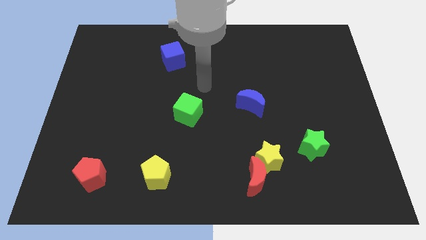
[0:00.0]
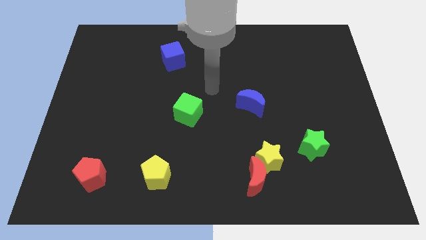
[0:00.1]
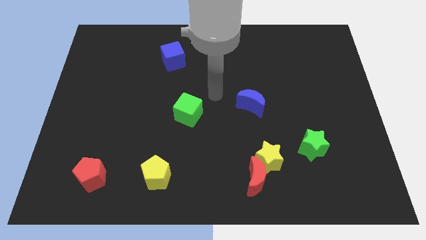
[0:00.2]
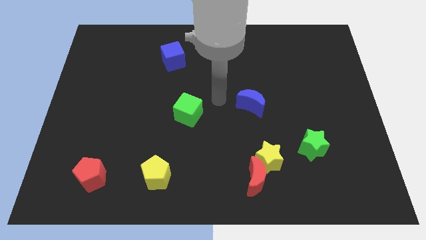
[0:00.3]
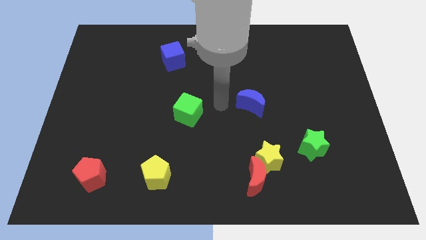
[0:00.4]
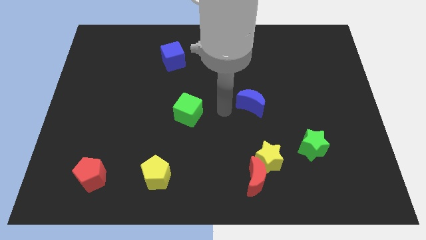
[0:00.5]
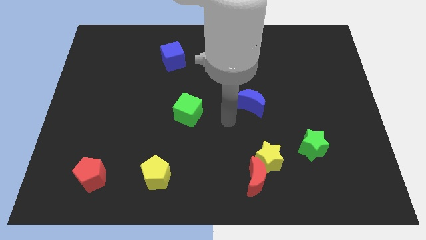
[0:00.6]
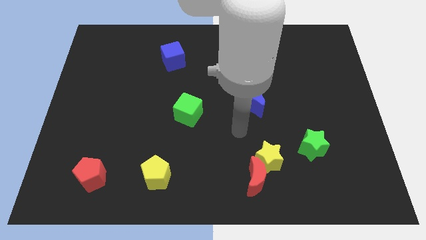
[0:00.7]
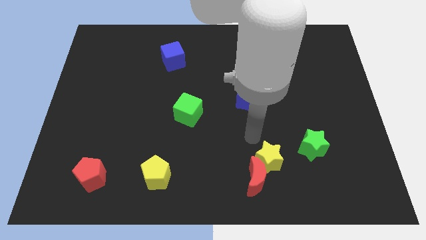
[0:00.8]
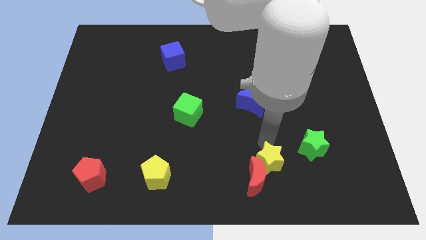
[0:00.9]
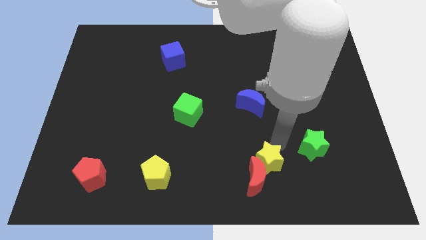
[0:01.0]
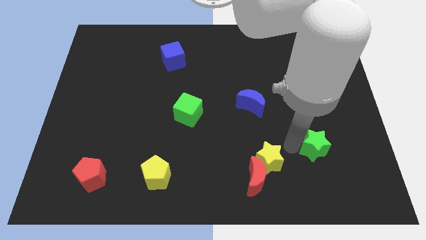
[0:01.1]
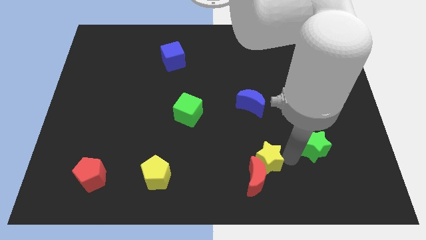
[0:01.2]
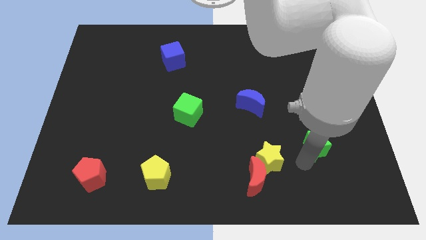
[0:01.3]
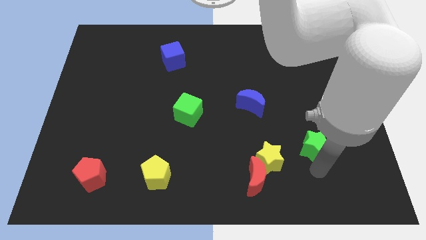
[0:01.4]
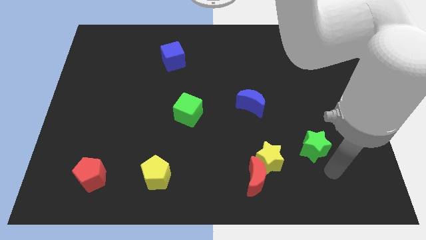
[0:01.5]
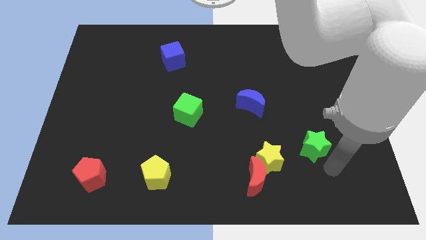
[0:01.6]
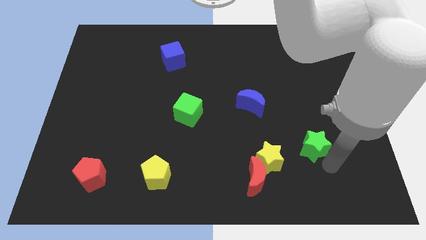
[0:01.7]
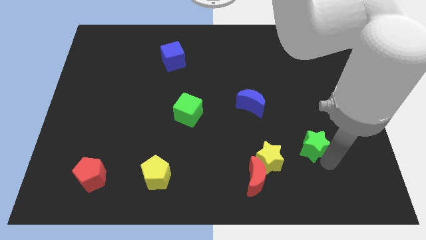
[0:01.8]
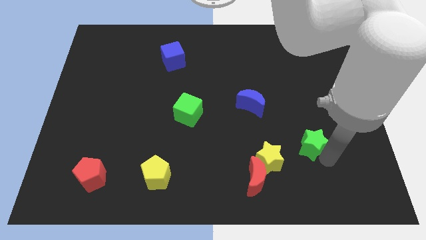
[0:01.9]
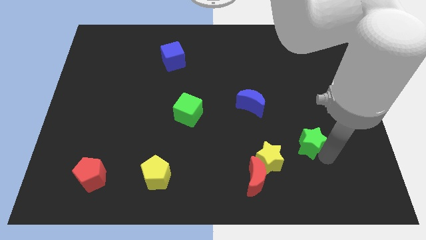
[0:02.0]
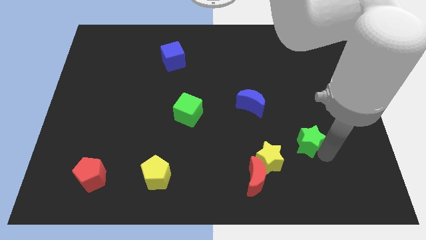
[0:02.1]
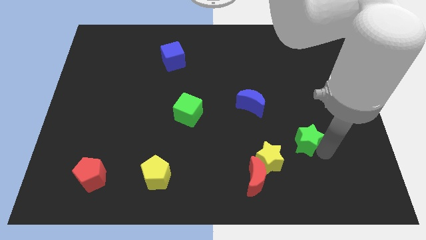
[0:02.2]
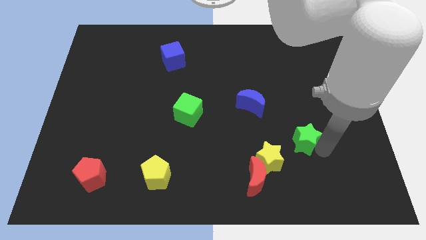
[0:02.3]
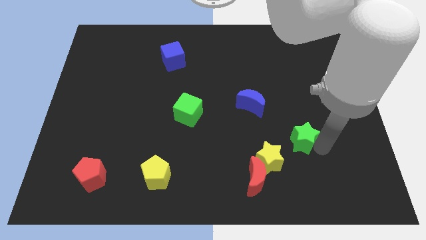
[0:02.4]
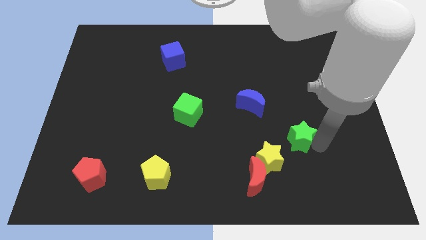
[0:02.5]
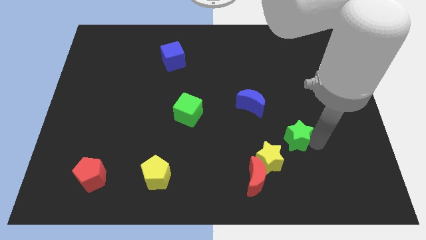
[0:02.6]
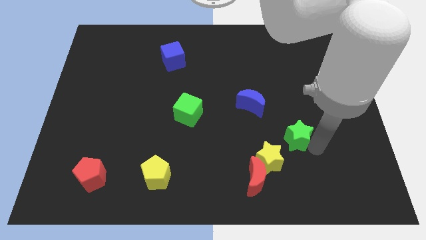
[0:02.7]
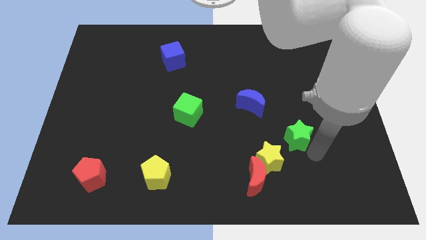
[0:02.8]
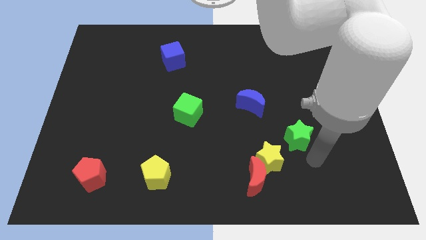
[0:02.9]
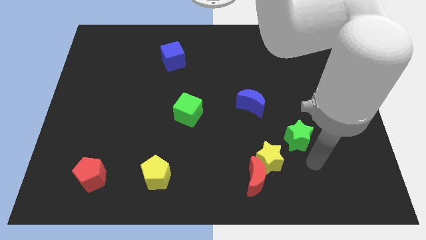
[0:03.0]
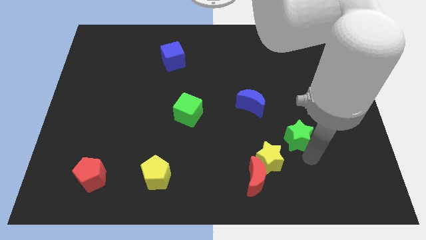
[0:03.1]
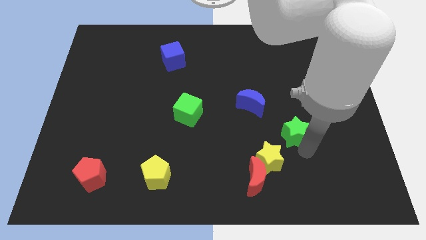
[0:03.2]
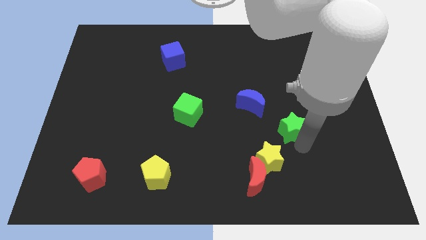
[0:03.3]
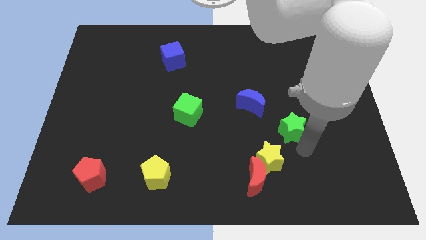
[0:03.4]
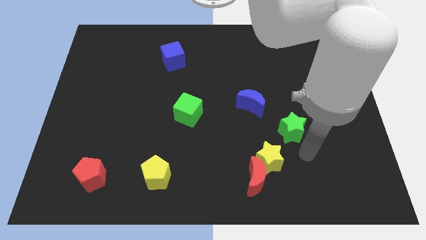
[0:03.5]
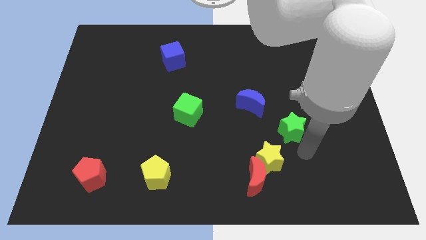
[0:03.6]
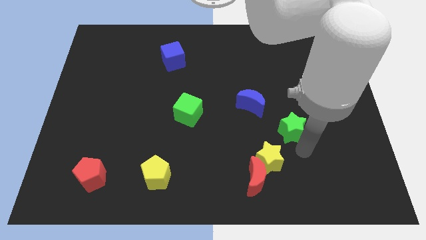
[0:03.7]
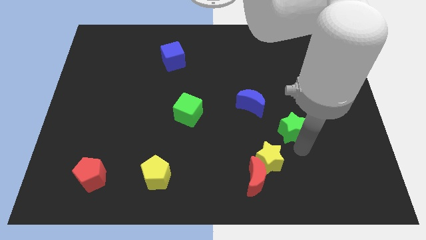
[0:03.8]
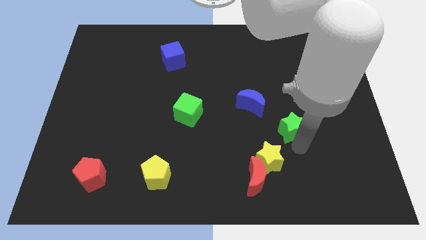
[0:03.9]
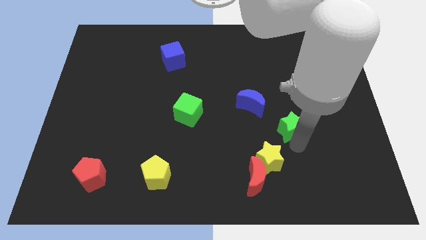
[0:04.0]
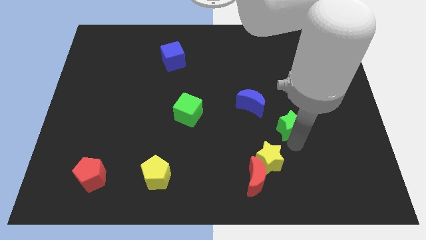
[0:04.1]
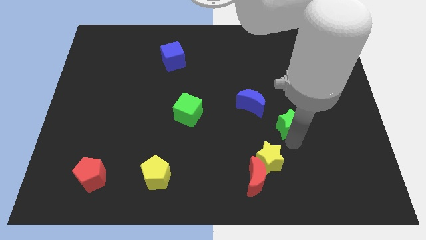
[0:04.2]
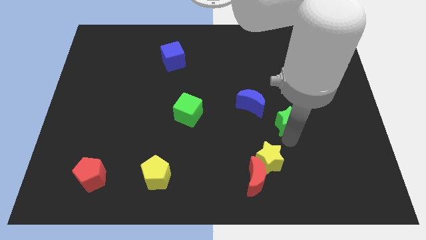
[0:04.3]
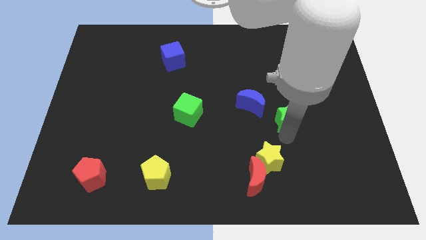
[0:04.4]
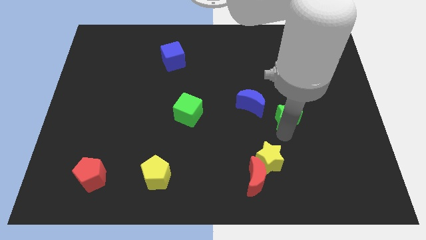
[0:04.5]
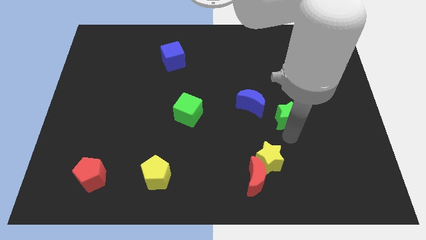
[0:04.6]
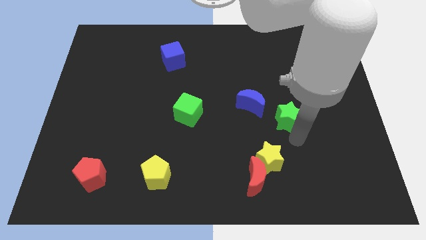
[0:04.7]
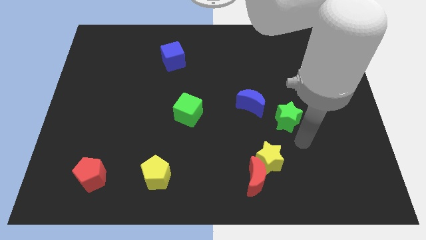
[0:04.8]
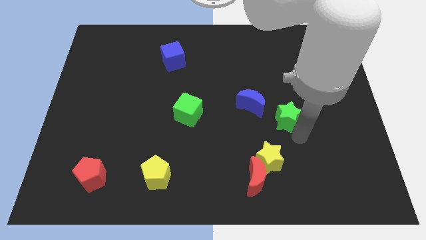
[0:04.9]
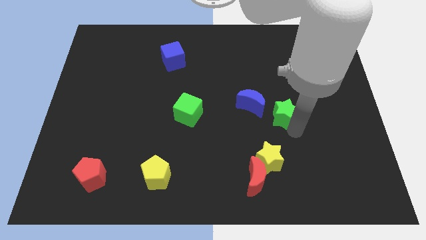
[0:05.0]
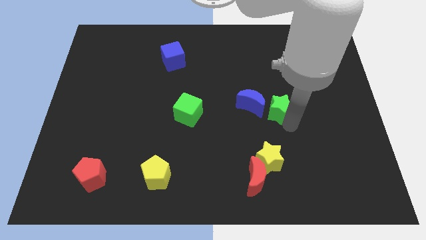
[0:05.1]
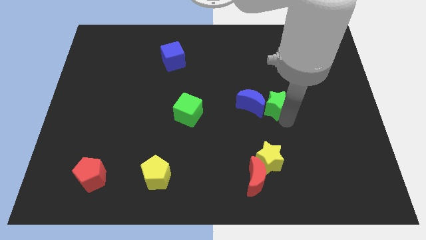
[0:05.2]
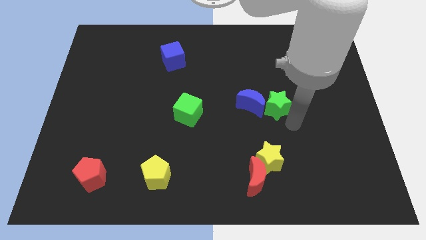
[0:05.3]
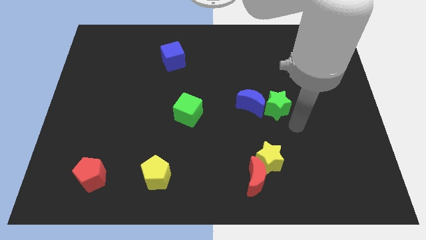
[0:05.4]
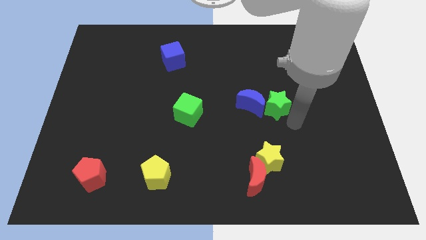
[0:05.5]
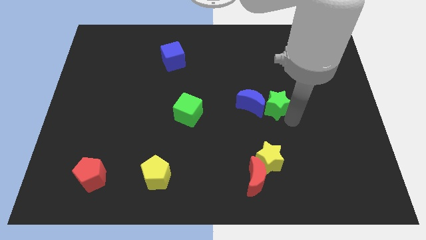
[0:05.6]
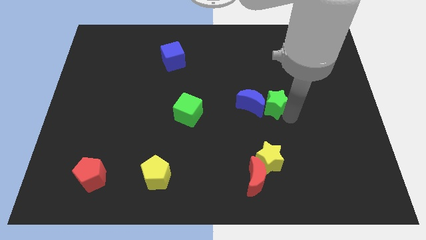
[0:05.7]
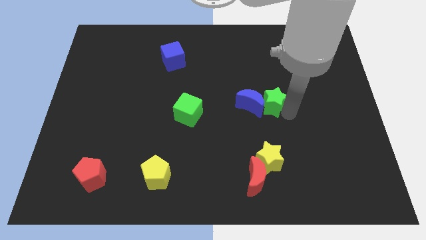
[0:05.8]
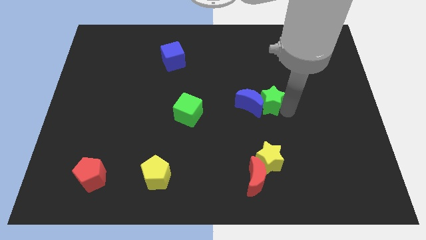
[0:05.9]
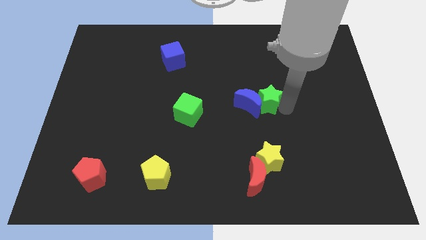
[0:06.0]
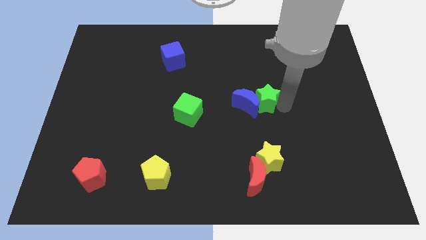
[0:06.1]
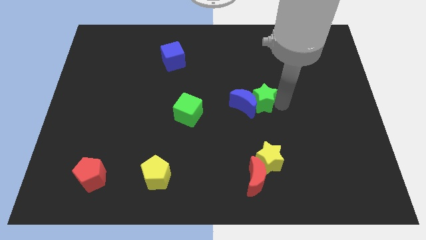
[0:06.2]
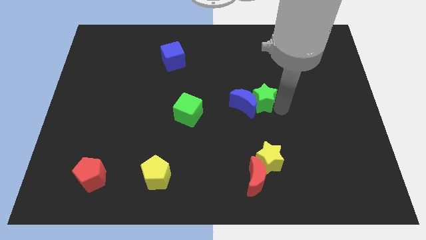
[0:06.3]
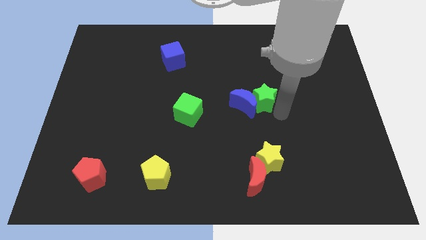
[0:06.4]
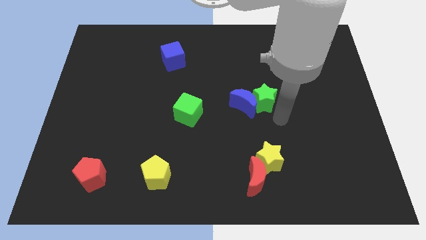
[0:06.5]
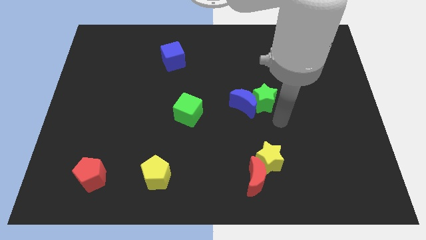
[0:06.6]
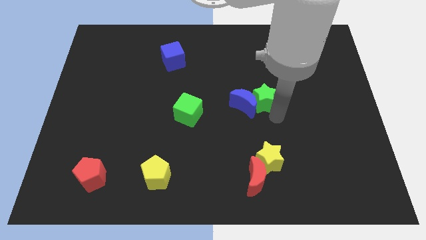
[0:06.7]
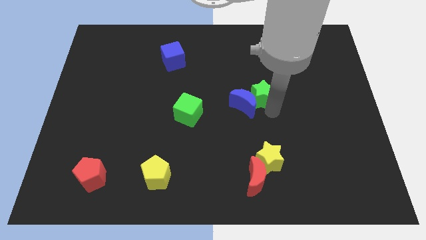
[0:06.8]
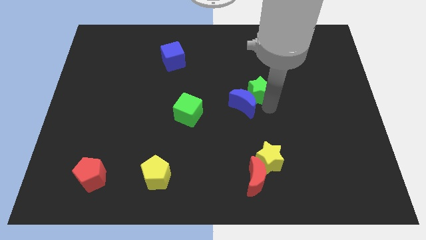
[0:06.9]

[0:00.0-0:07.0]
slide the green star above the blue moon
